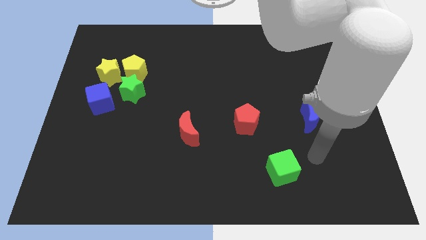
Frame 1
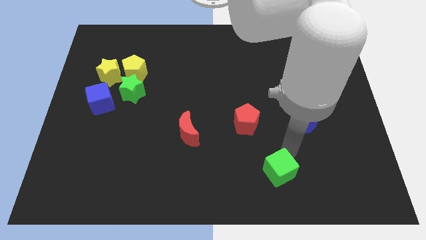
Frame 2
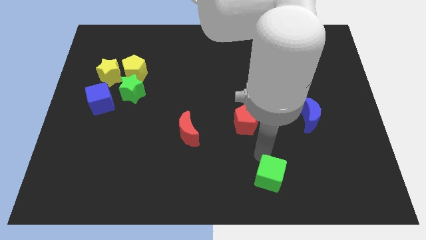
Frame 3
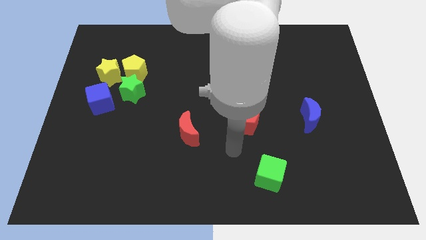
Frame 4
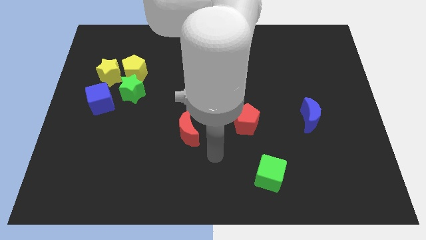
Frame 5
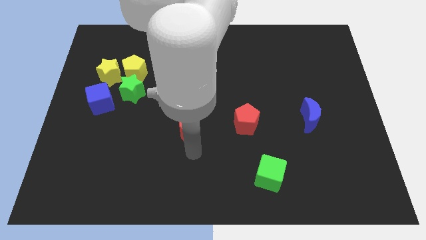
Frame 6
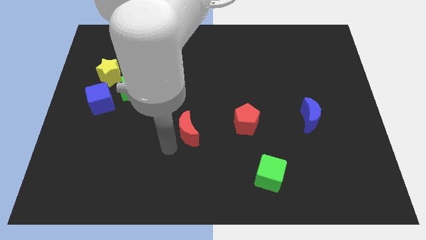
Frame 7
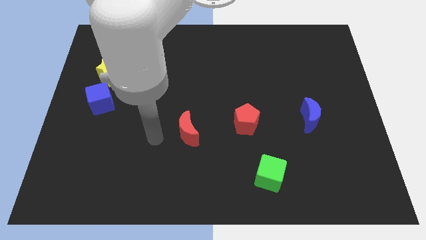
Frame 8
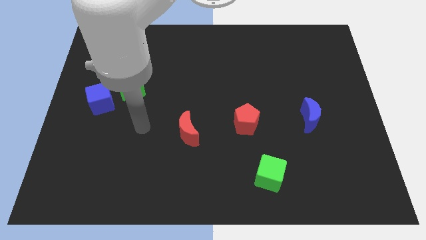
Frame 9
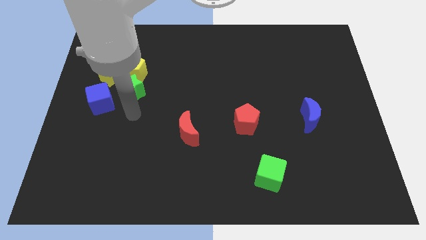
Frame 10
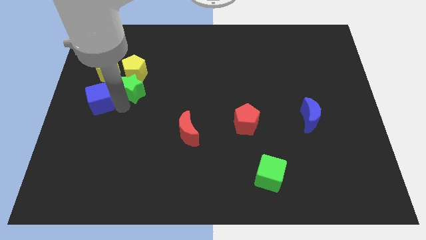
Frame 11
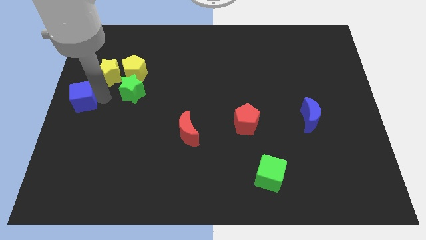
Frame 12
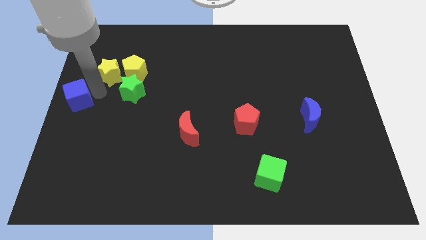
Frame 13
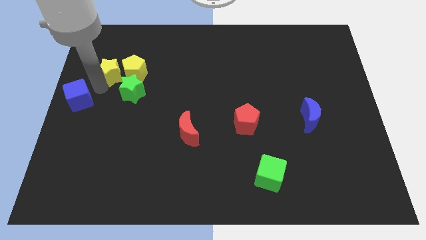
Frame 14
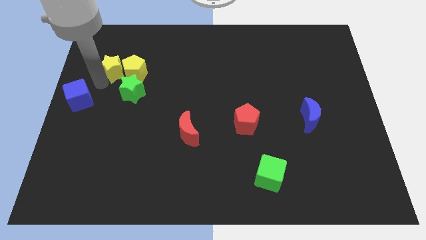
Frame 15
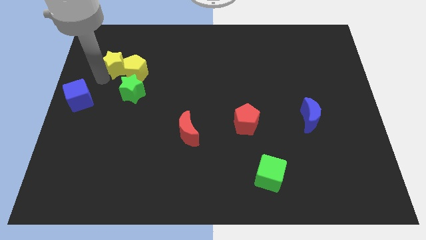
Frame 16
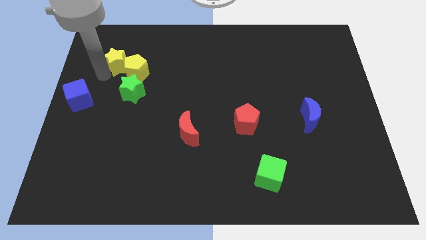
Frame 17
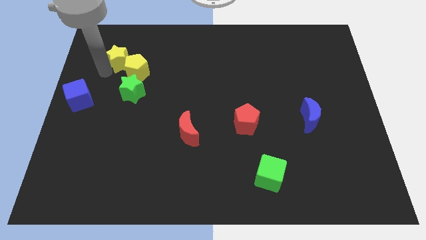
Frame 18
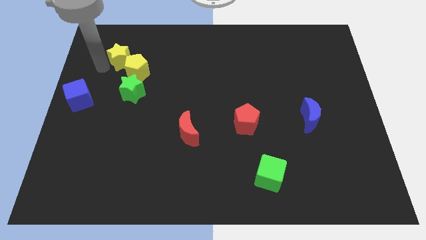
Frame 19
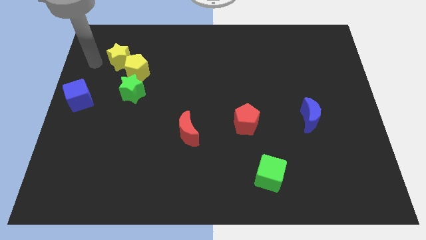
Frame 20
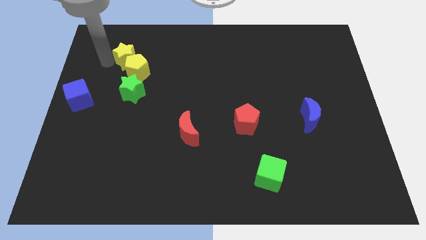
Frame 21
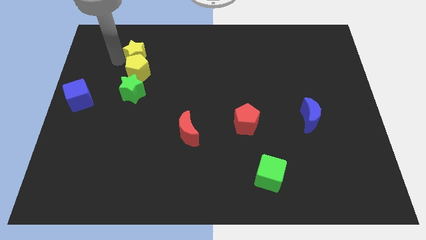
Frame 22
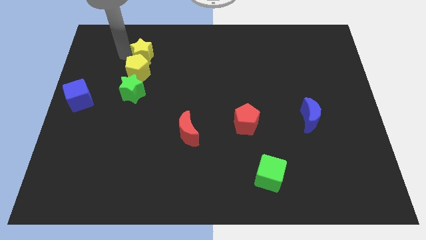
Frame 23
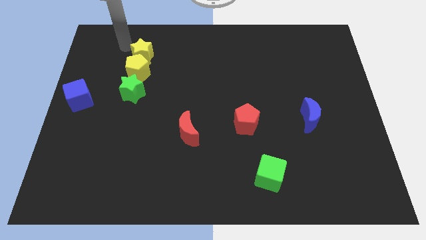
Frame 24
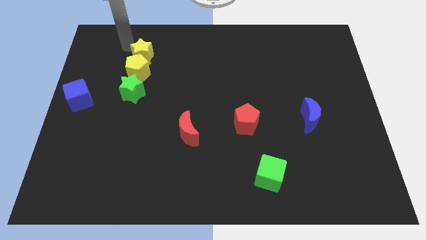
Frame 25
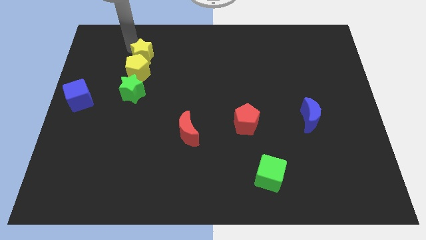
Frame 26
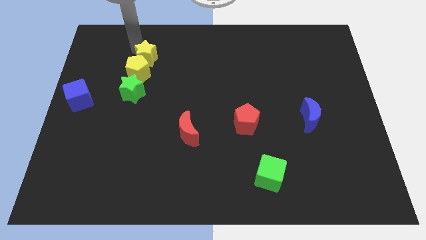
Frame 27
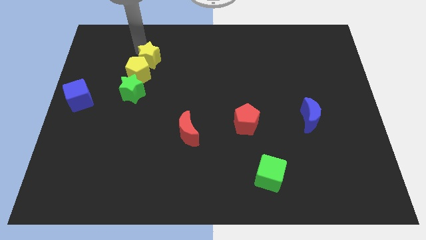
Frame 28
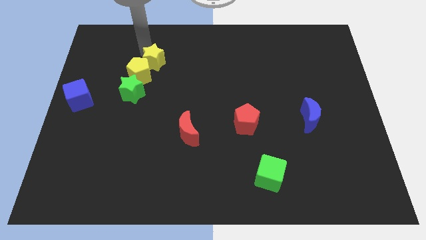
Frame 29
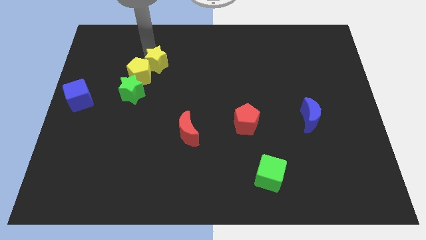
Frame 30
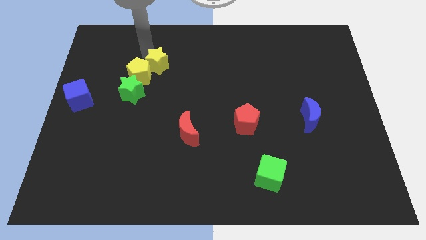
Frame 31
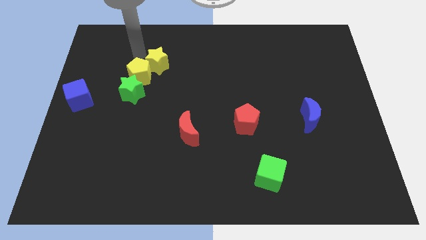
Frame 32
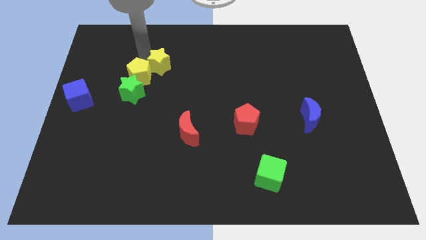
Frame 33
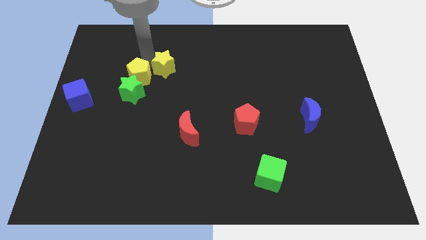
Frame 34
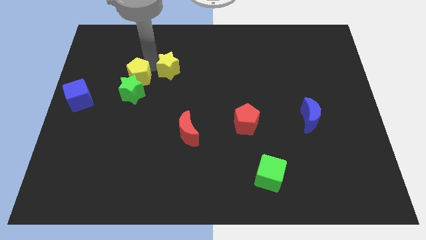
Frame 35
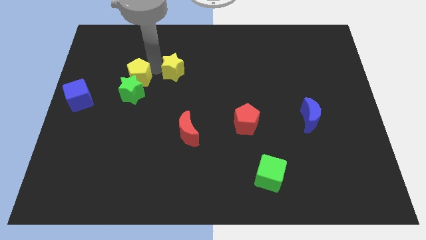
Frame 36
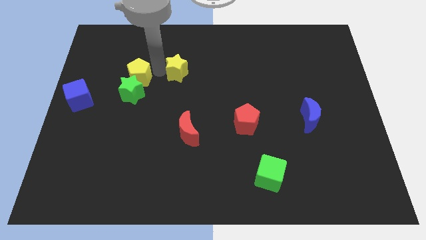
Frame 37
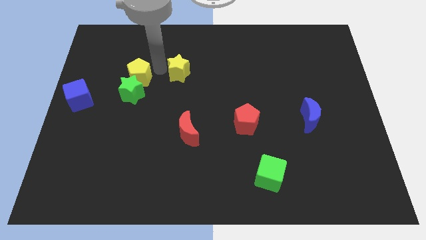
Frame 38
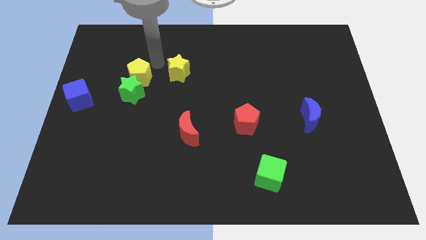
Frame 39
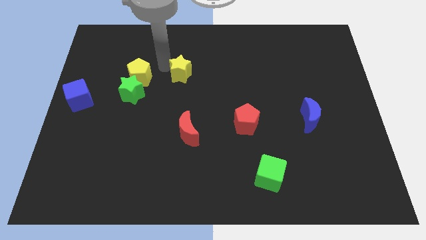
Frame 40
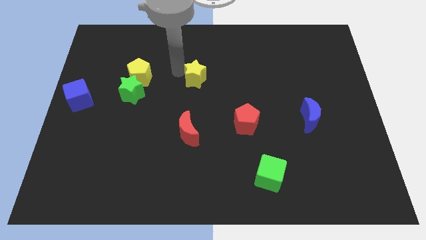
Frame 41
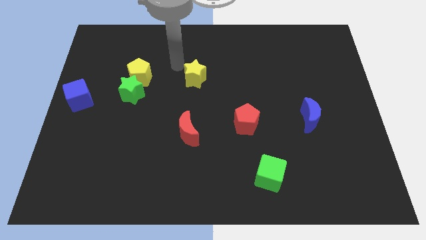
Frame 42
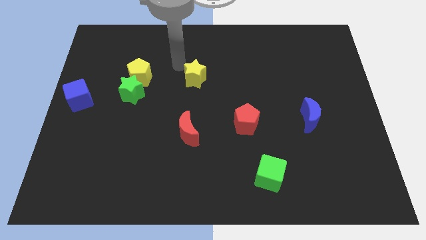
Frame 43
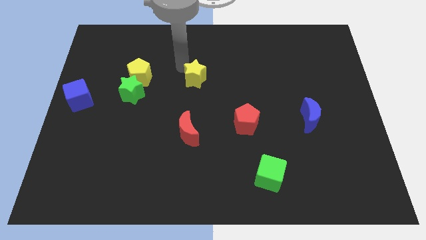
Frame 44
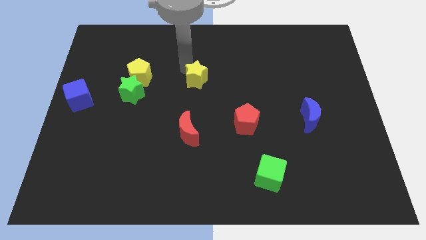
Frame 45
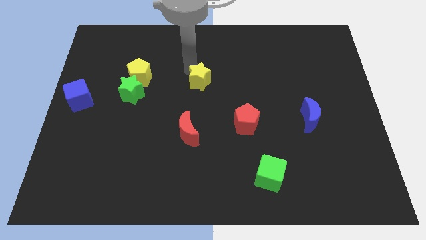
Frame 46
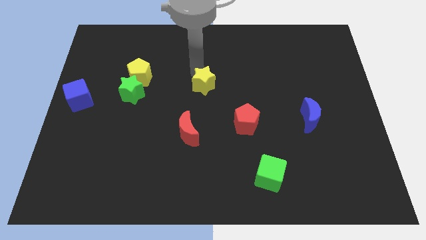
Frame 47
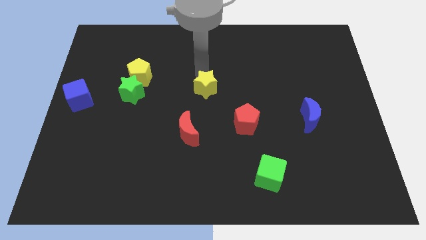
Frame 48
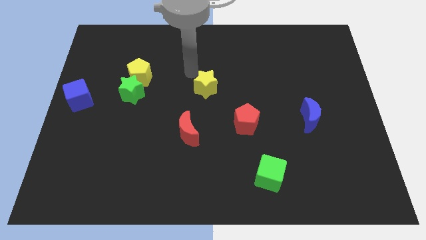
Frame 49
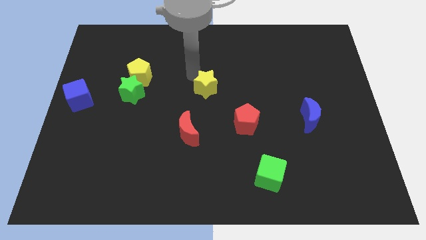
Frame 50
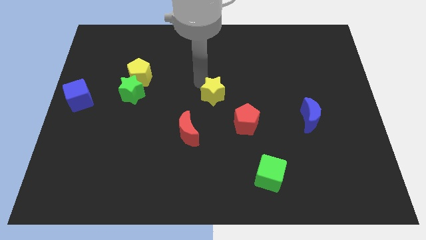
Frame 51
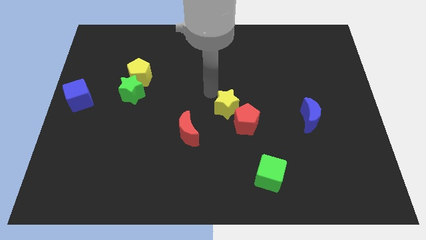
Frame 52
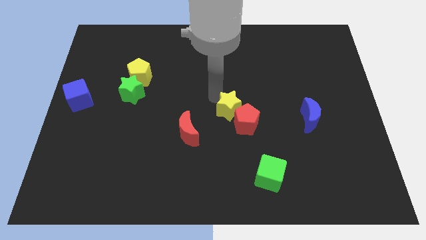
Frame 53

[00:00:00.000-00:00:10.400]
put the yellow star close to the red pentagon

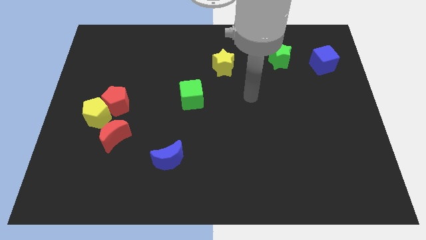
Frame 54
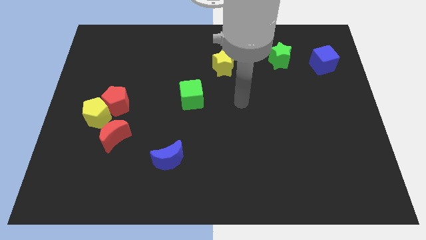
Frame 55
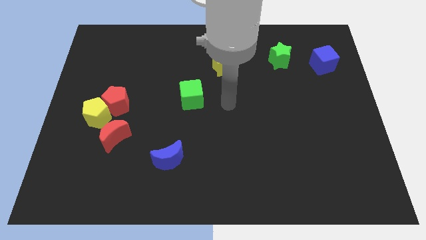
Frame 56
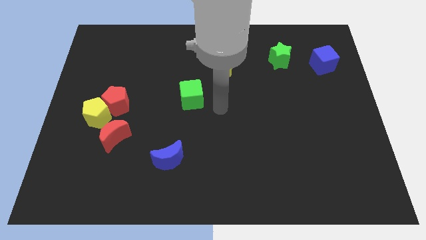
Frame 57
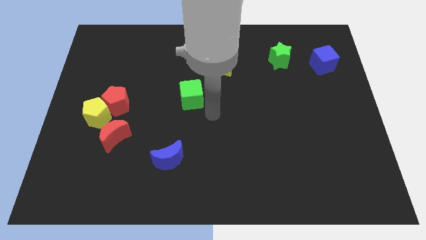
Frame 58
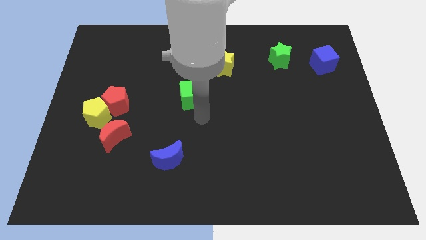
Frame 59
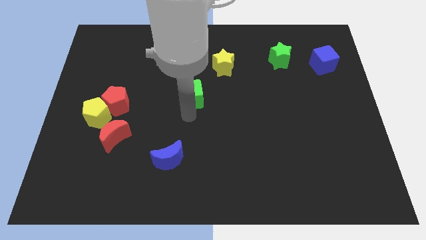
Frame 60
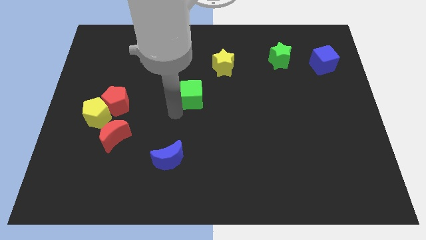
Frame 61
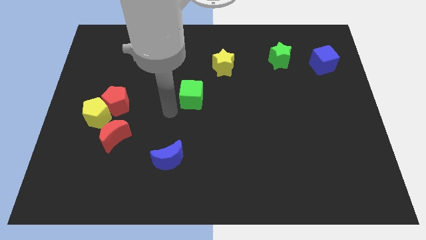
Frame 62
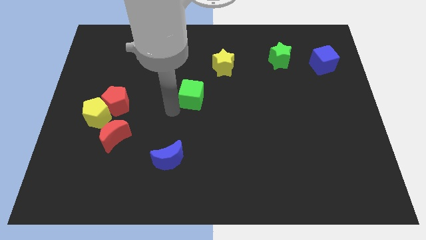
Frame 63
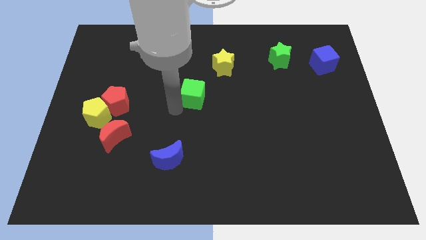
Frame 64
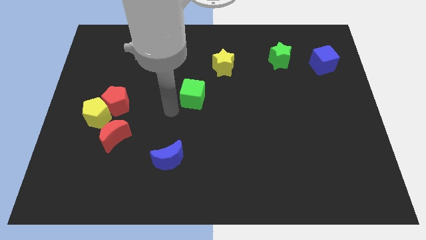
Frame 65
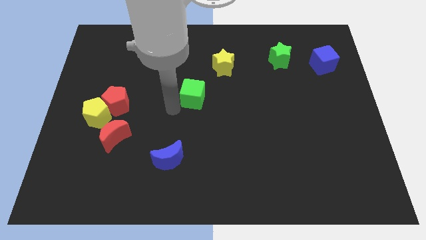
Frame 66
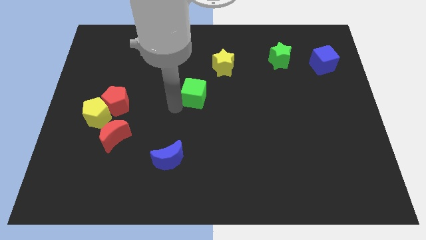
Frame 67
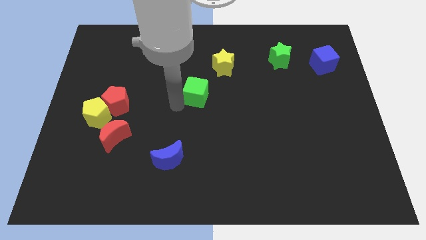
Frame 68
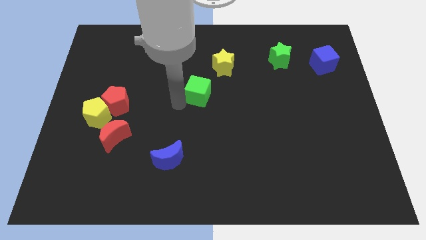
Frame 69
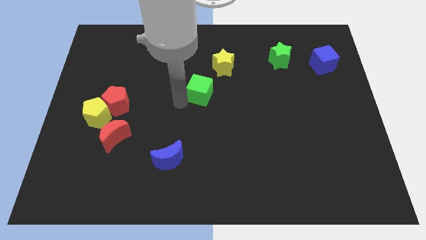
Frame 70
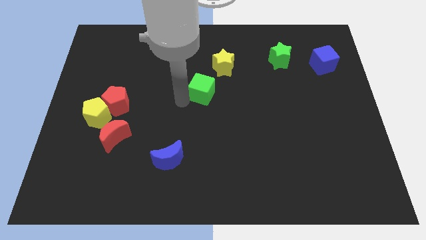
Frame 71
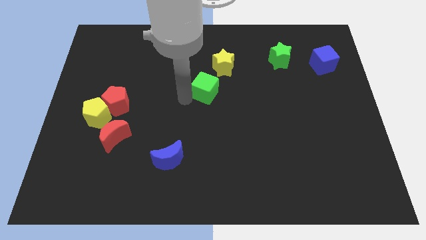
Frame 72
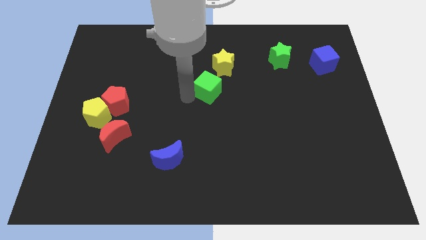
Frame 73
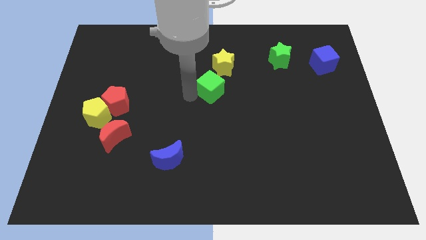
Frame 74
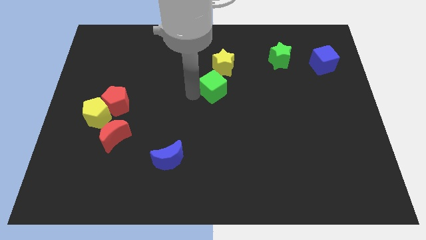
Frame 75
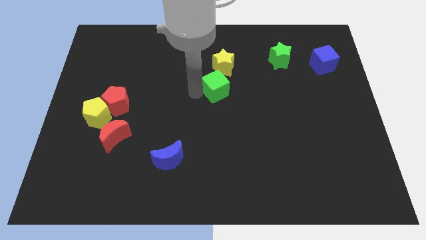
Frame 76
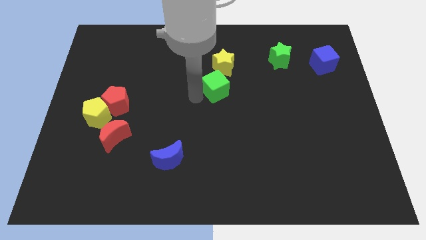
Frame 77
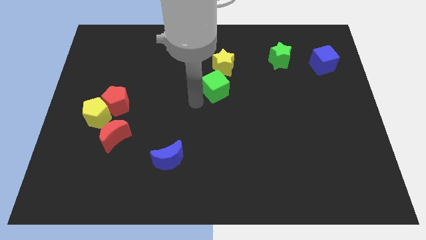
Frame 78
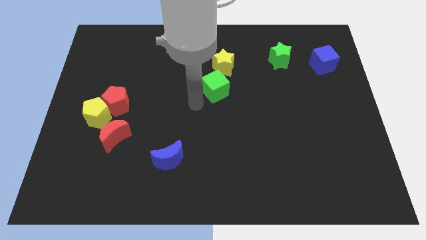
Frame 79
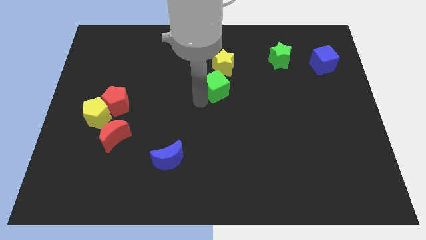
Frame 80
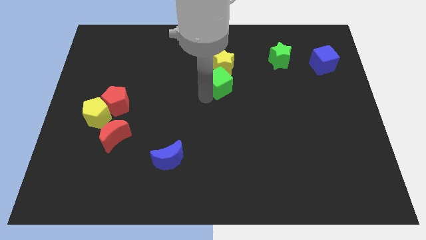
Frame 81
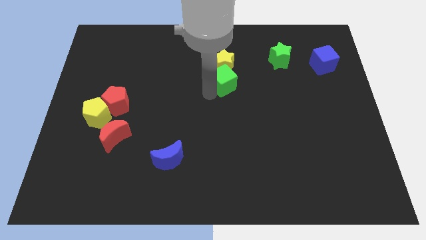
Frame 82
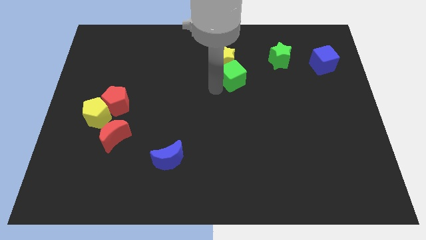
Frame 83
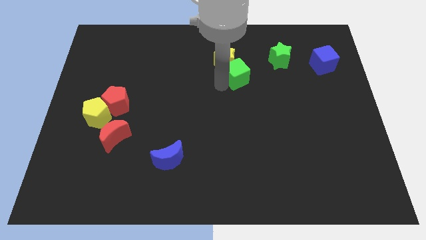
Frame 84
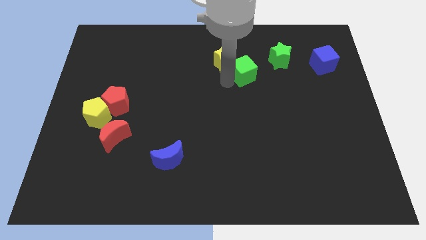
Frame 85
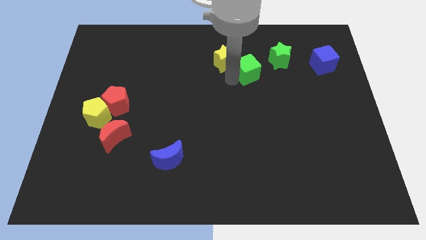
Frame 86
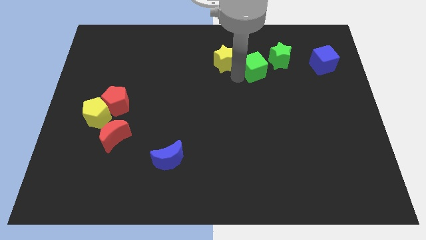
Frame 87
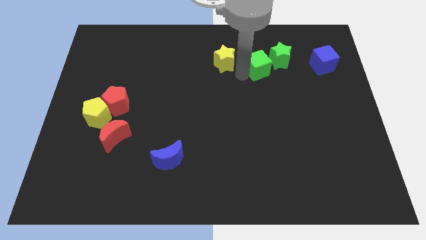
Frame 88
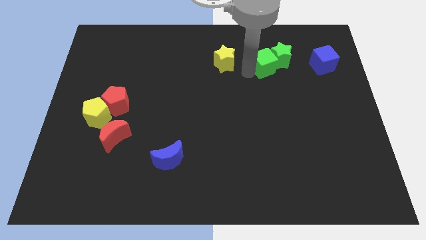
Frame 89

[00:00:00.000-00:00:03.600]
put the green cube towards the green star
